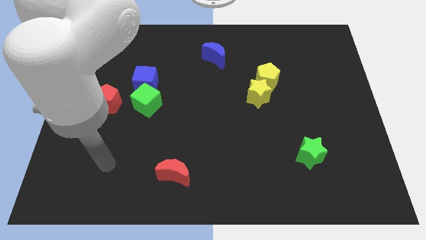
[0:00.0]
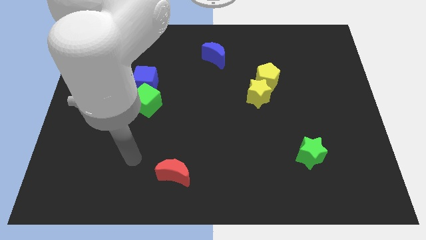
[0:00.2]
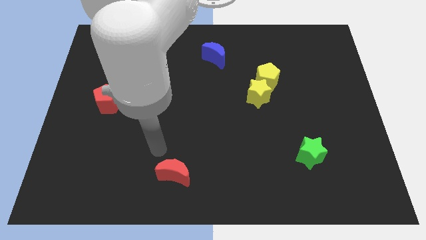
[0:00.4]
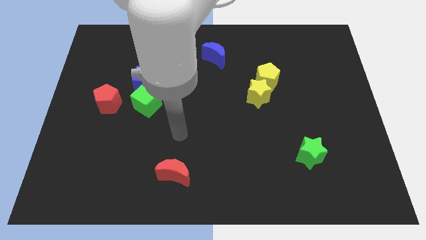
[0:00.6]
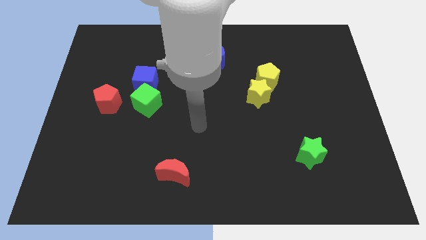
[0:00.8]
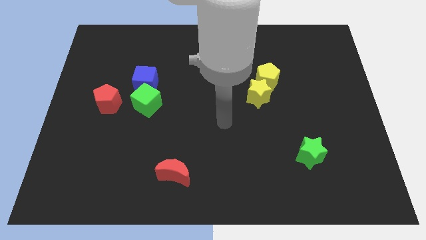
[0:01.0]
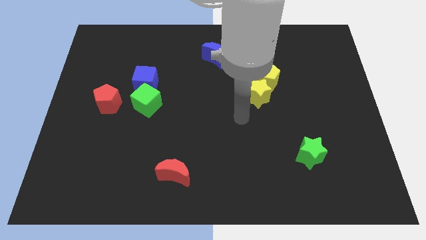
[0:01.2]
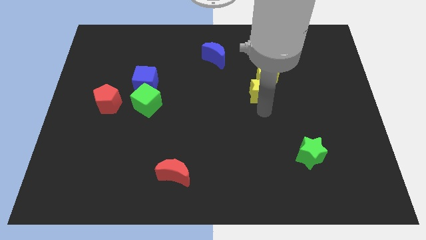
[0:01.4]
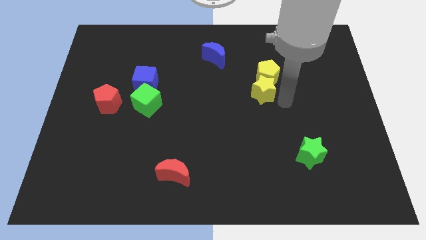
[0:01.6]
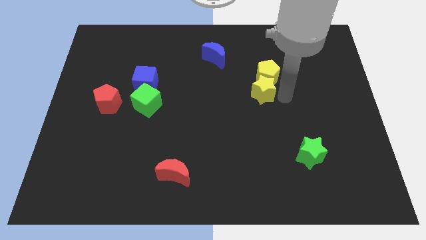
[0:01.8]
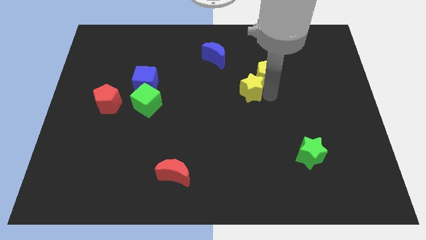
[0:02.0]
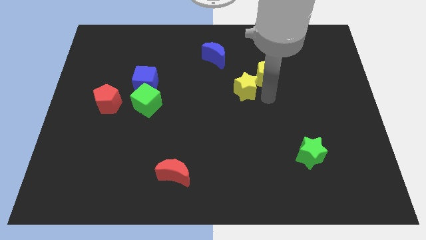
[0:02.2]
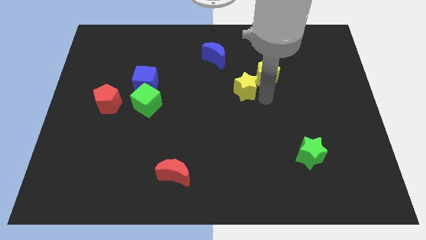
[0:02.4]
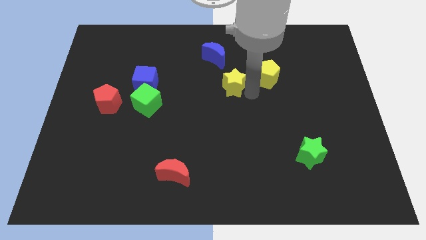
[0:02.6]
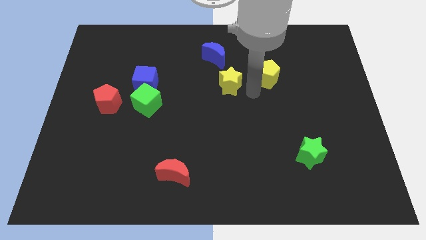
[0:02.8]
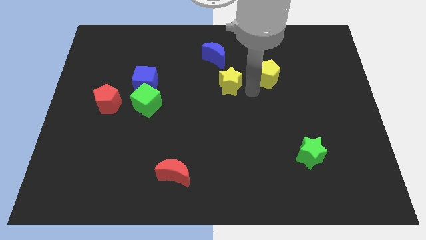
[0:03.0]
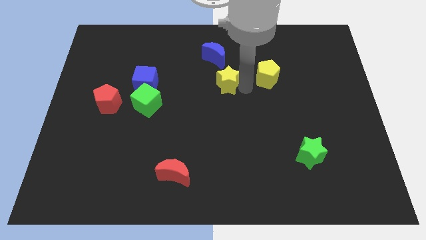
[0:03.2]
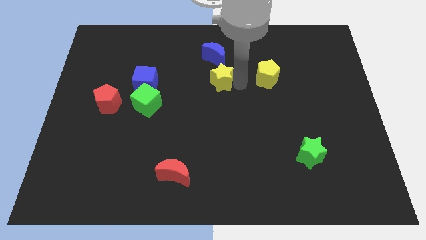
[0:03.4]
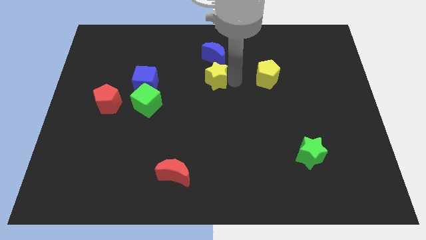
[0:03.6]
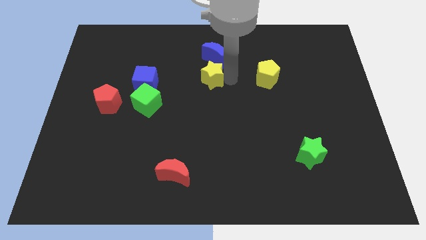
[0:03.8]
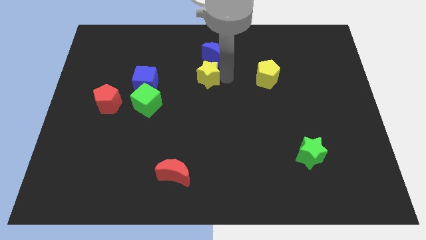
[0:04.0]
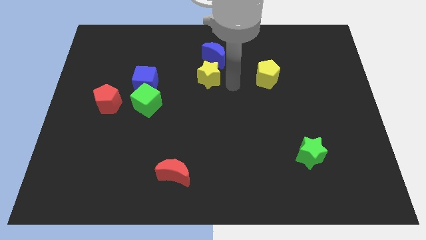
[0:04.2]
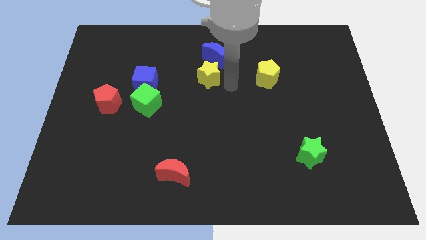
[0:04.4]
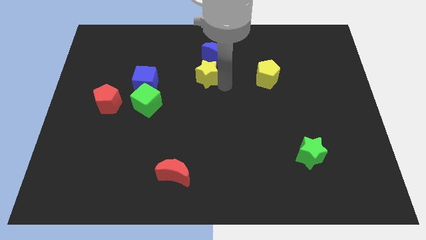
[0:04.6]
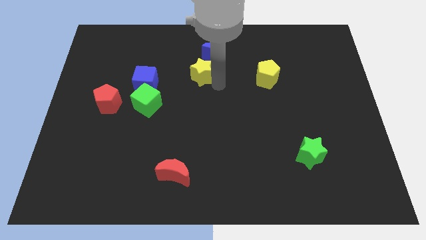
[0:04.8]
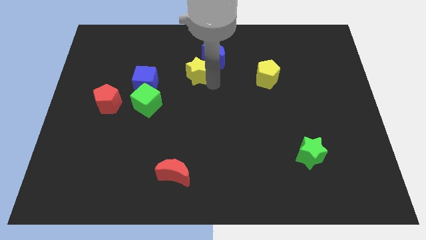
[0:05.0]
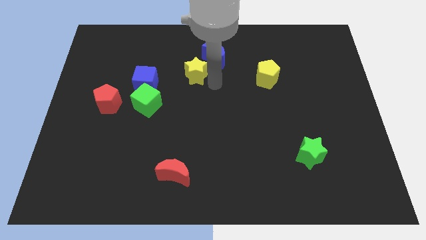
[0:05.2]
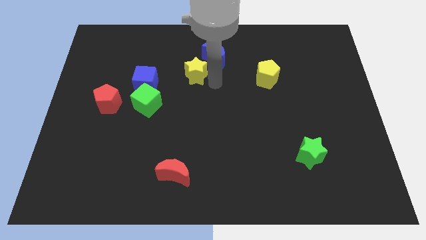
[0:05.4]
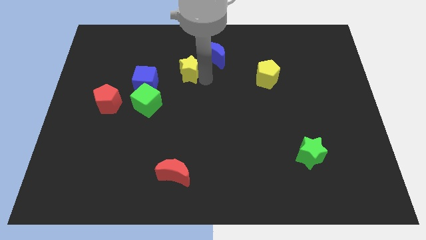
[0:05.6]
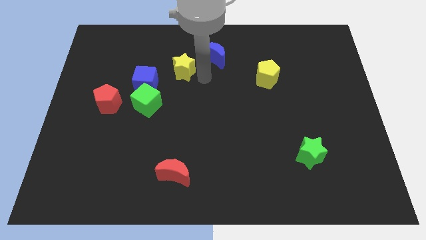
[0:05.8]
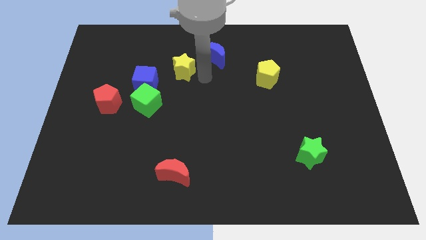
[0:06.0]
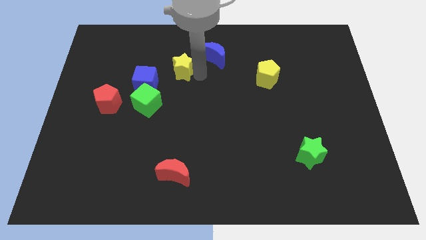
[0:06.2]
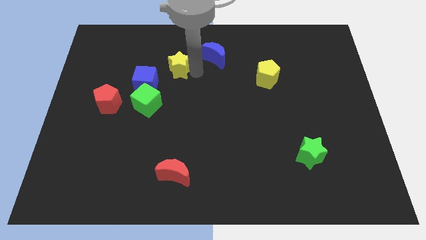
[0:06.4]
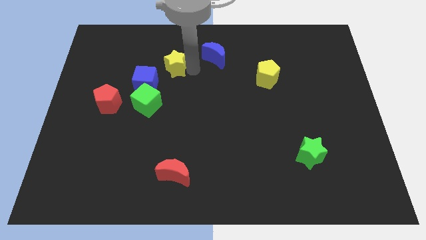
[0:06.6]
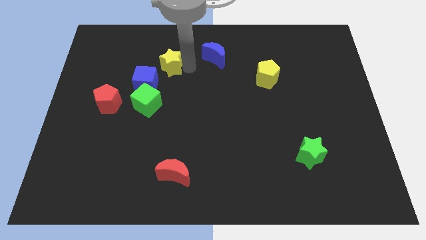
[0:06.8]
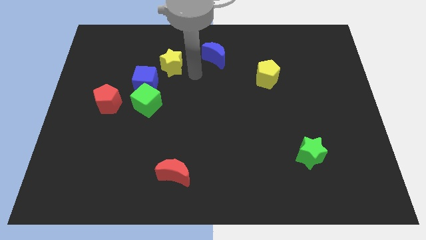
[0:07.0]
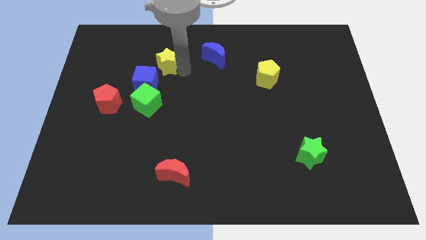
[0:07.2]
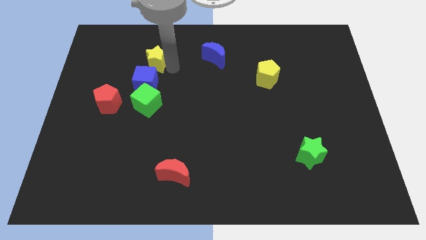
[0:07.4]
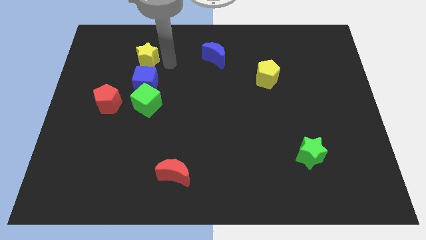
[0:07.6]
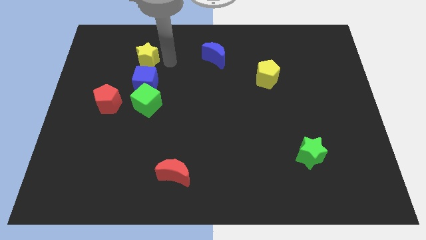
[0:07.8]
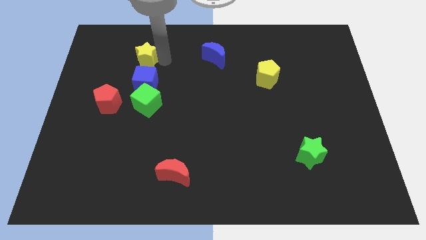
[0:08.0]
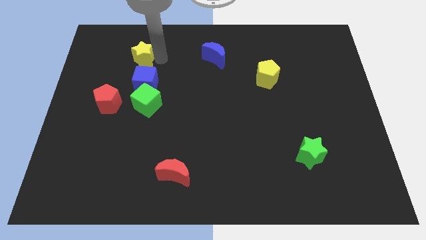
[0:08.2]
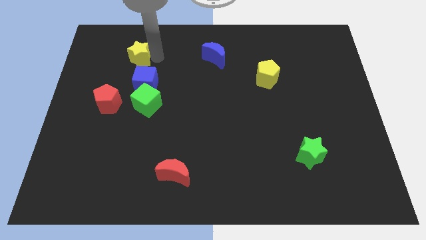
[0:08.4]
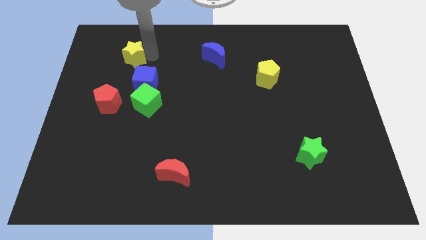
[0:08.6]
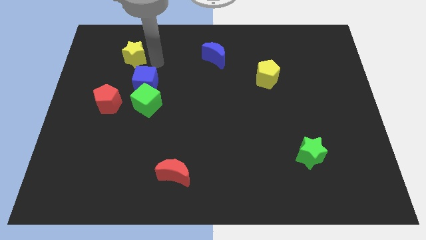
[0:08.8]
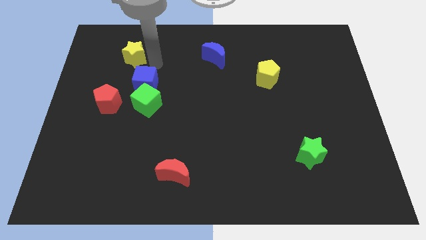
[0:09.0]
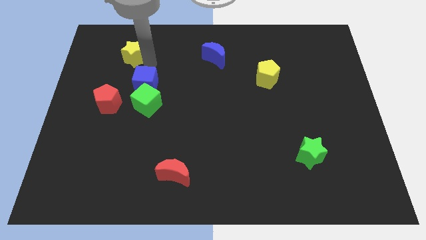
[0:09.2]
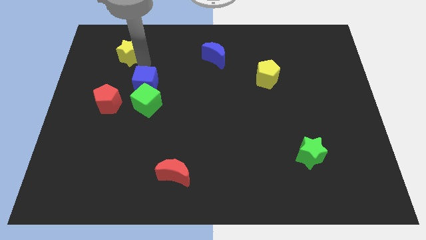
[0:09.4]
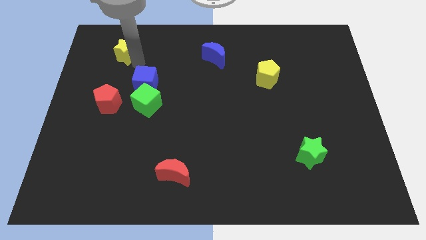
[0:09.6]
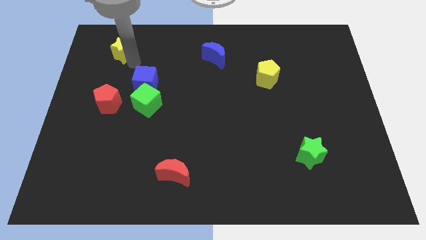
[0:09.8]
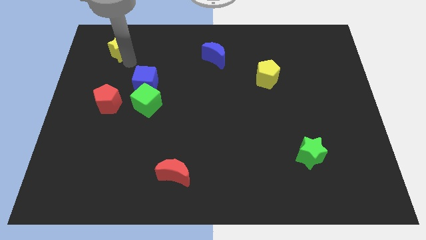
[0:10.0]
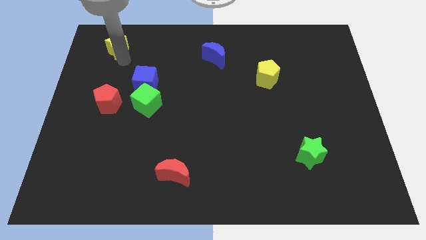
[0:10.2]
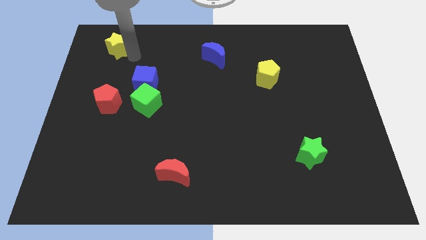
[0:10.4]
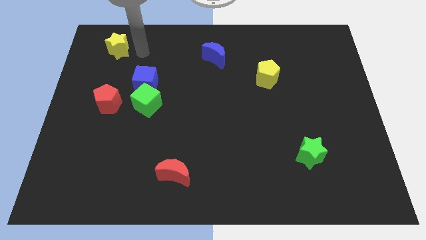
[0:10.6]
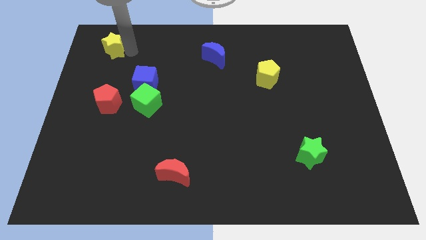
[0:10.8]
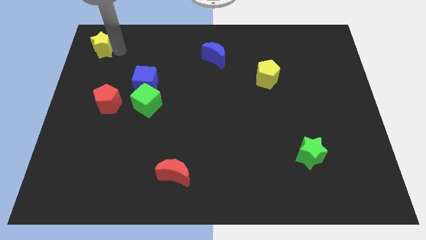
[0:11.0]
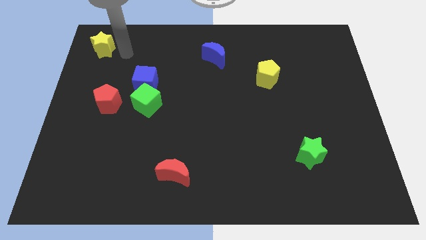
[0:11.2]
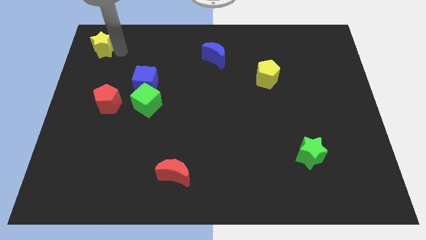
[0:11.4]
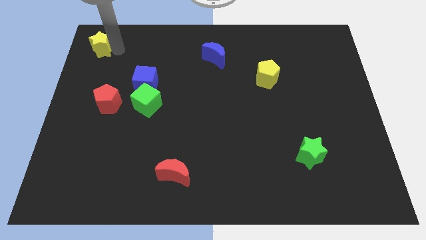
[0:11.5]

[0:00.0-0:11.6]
put the yellow star to the top left of the board

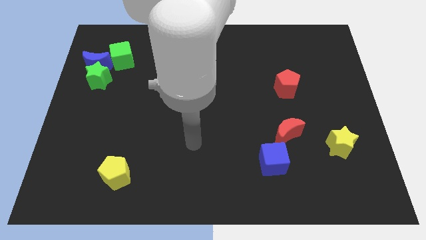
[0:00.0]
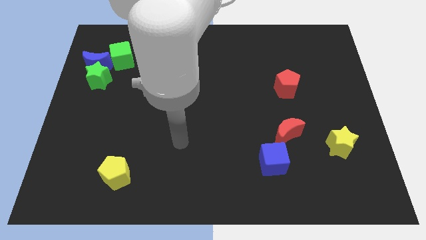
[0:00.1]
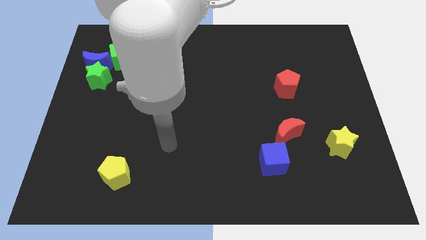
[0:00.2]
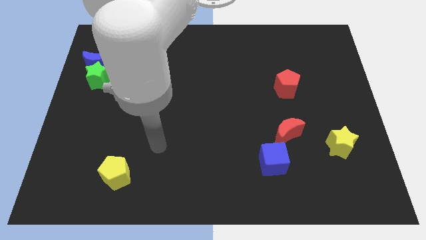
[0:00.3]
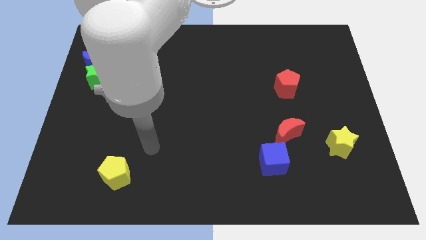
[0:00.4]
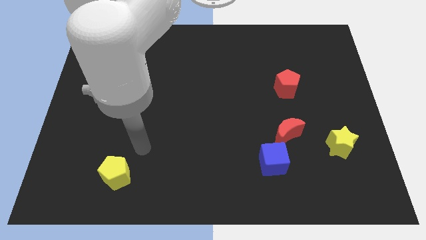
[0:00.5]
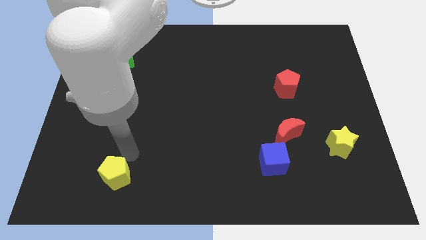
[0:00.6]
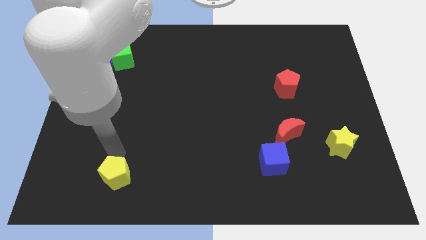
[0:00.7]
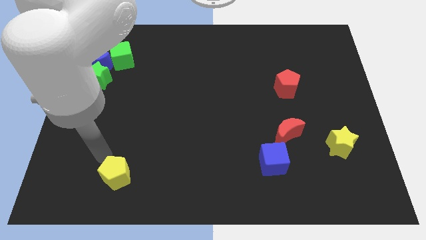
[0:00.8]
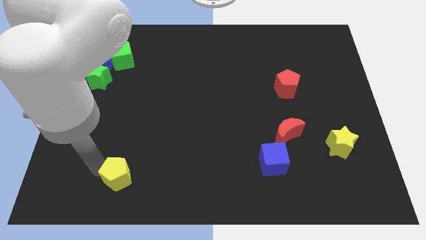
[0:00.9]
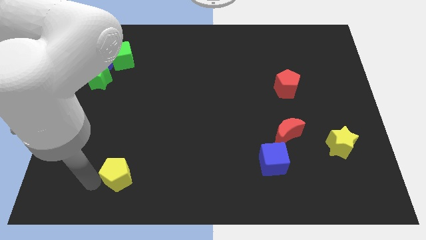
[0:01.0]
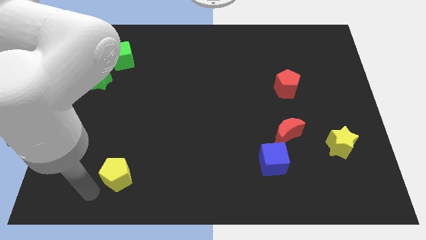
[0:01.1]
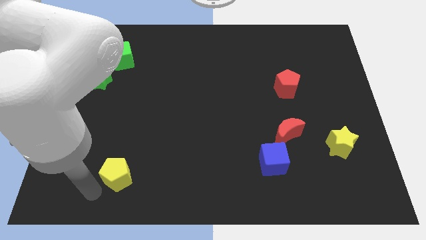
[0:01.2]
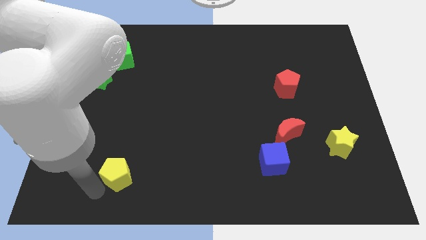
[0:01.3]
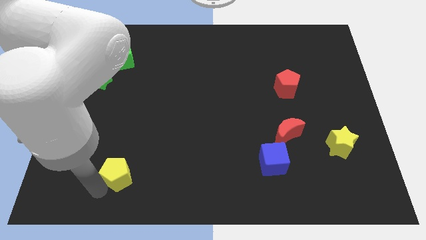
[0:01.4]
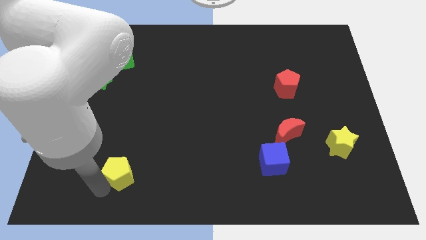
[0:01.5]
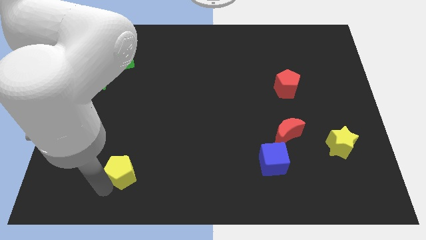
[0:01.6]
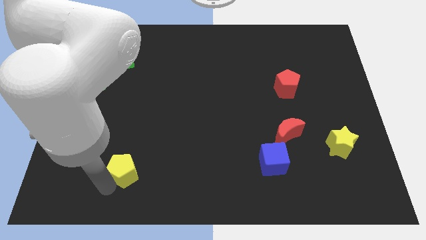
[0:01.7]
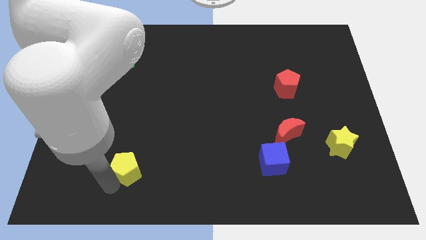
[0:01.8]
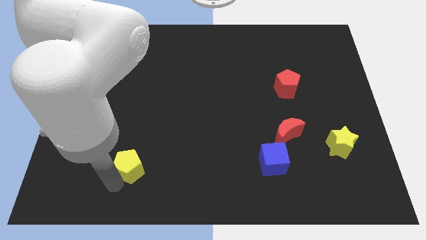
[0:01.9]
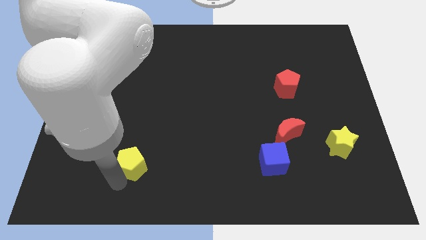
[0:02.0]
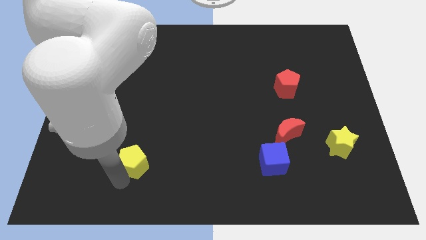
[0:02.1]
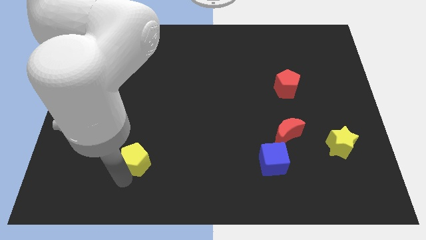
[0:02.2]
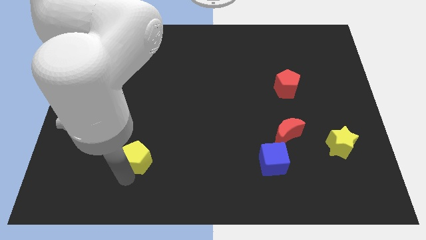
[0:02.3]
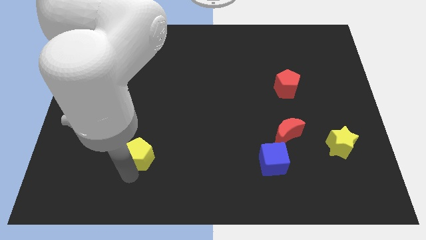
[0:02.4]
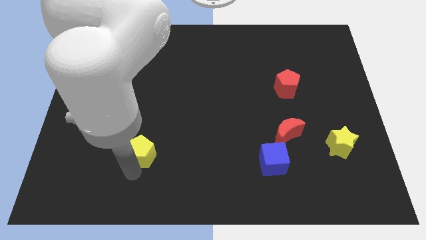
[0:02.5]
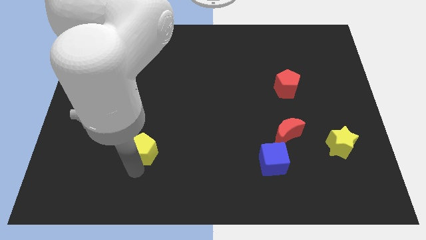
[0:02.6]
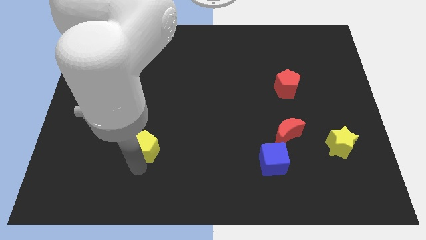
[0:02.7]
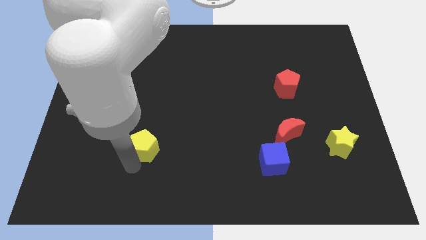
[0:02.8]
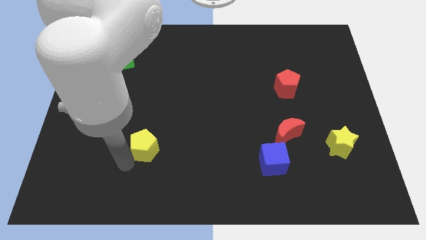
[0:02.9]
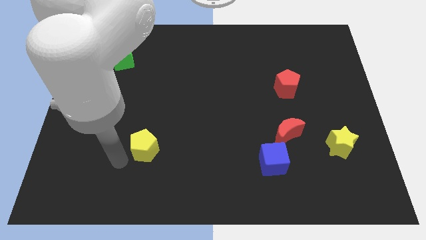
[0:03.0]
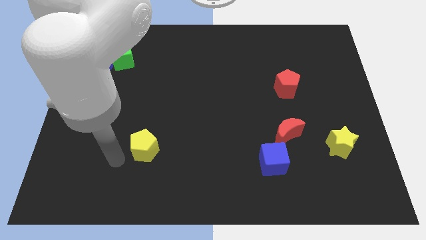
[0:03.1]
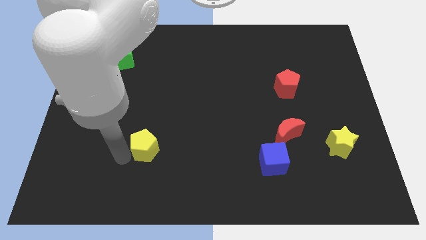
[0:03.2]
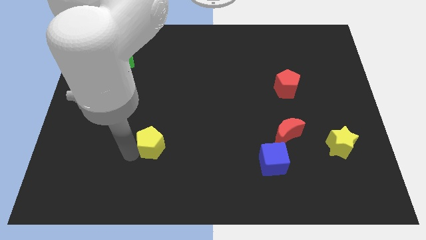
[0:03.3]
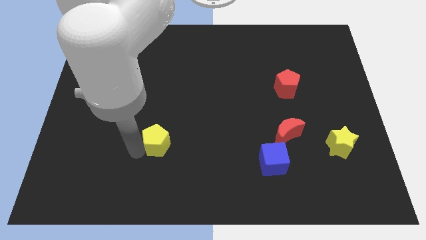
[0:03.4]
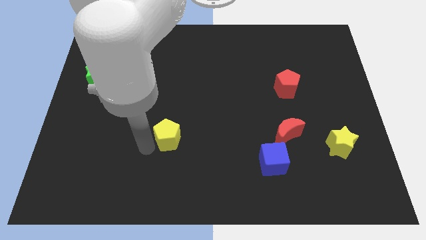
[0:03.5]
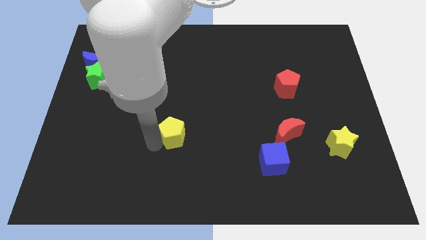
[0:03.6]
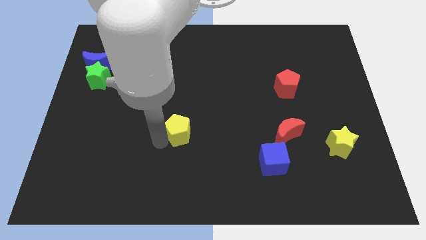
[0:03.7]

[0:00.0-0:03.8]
push the yellow pentagon to the center
